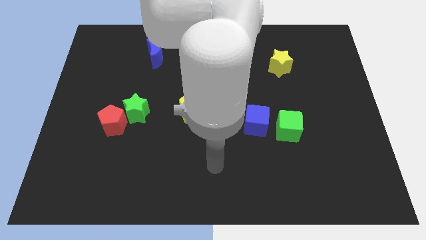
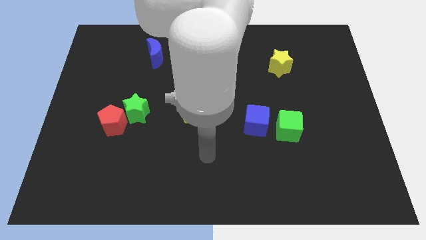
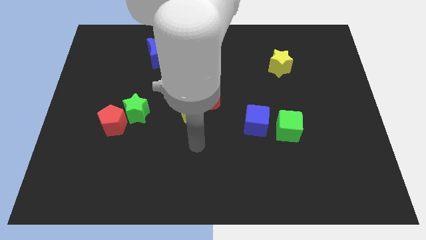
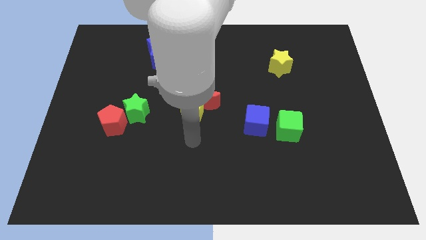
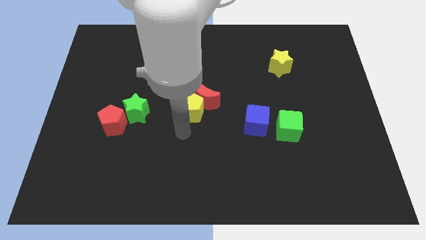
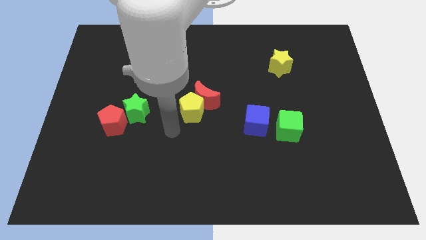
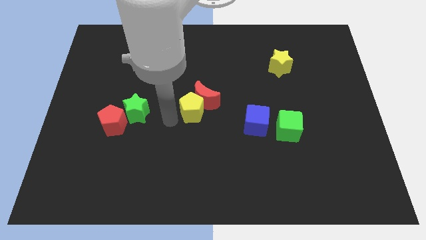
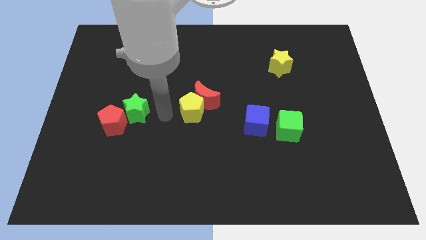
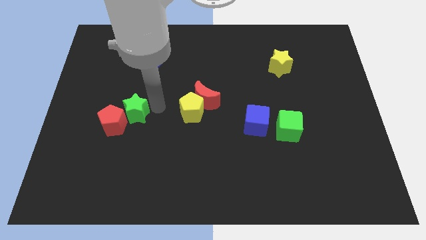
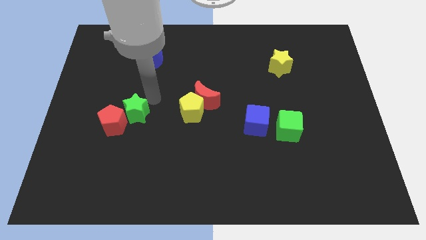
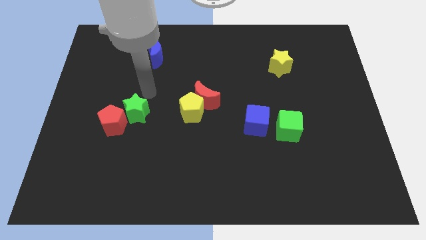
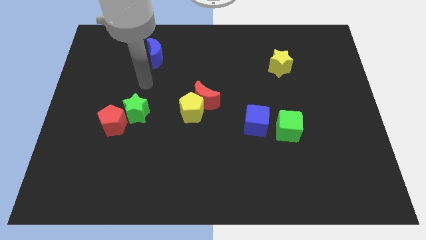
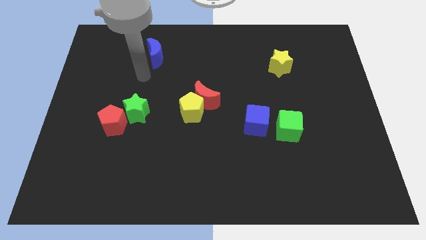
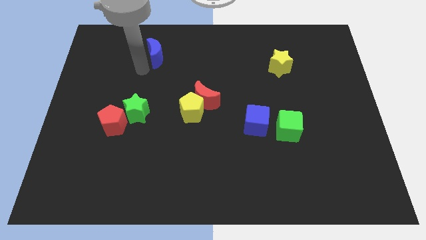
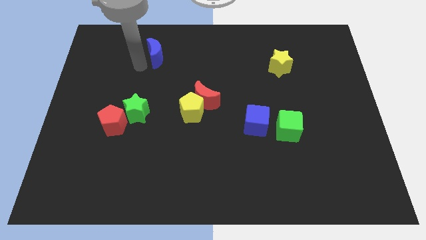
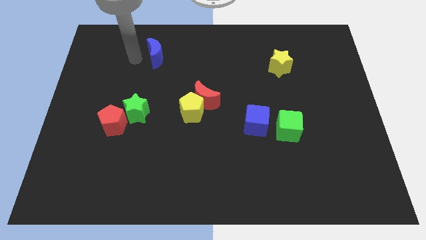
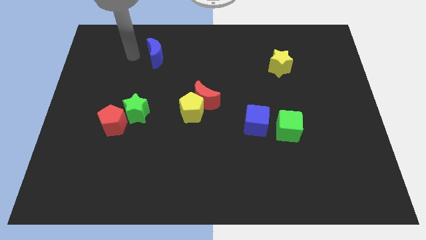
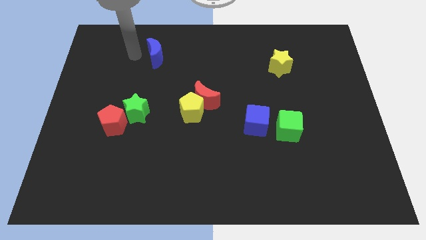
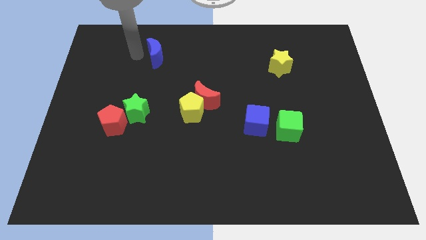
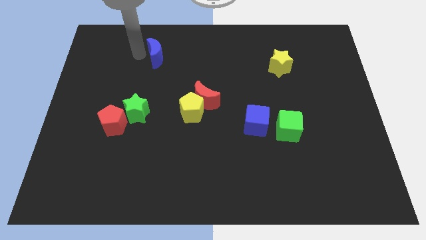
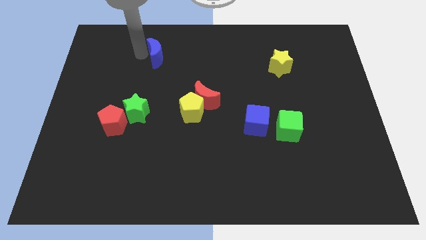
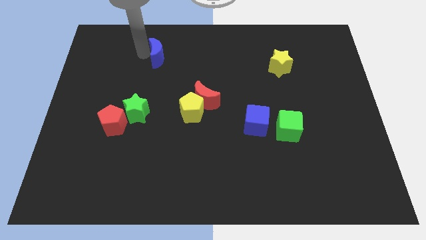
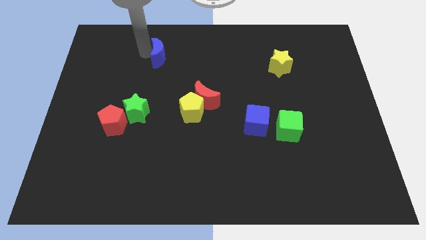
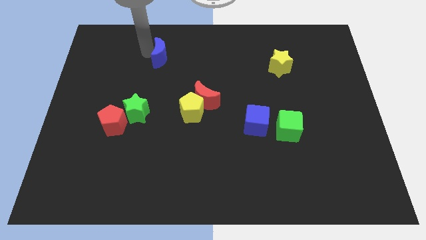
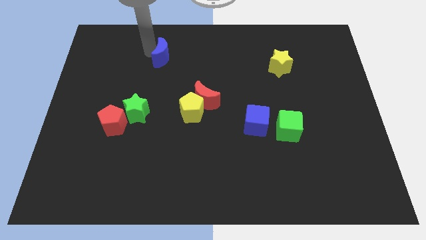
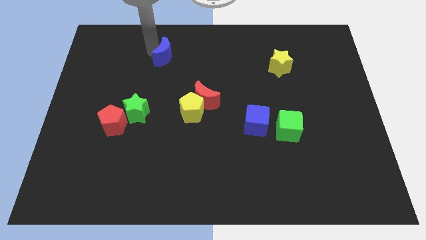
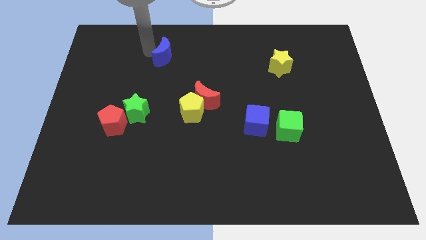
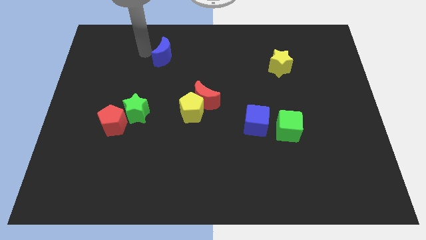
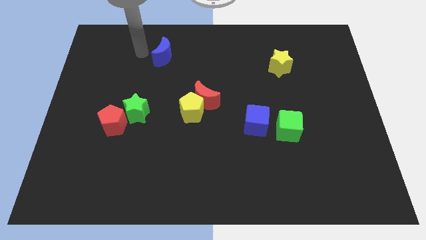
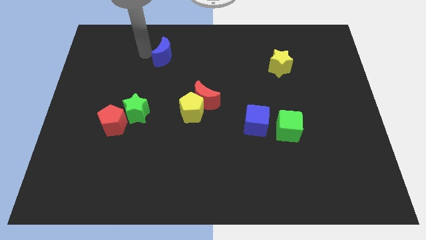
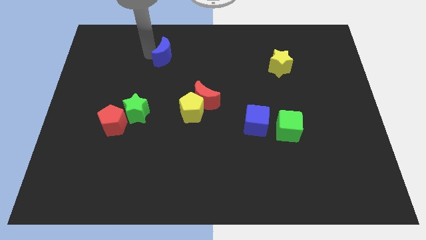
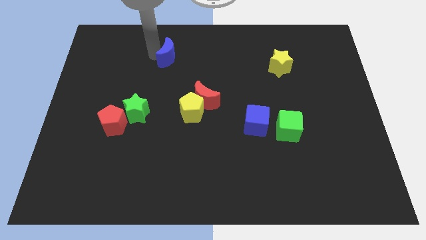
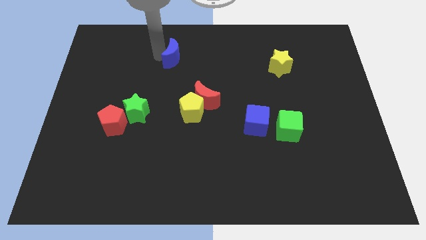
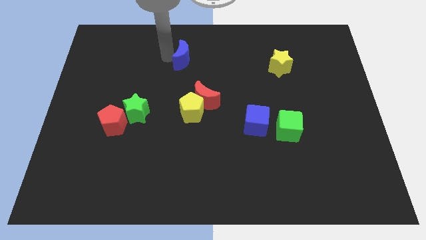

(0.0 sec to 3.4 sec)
slide the blue moon to the right somewhat

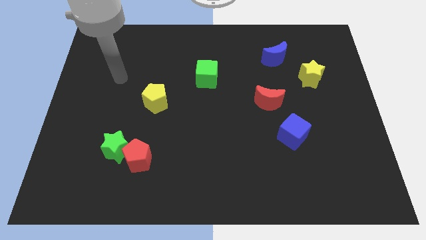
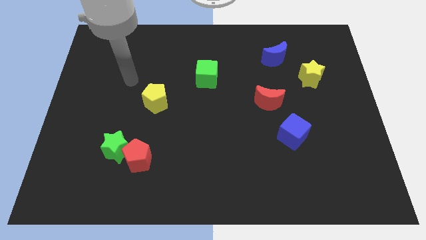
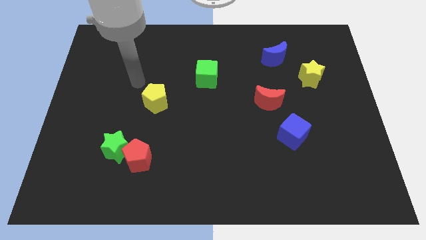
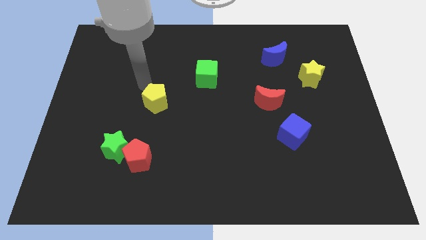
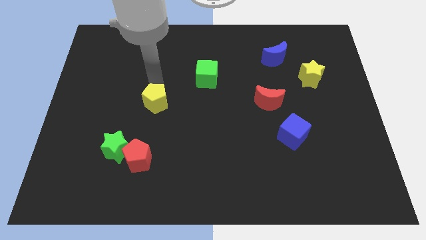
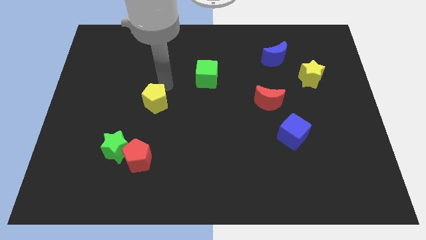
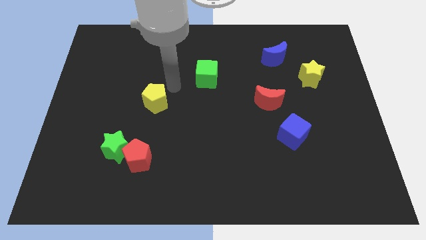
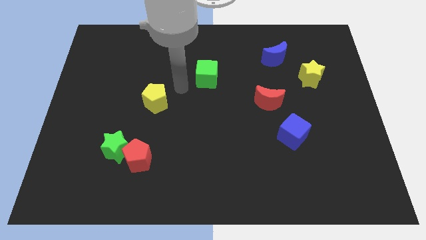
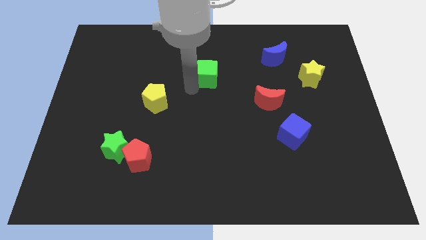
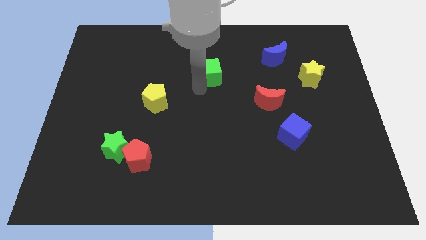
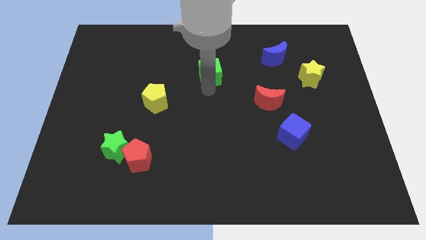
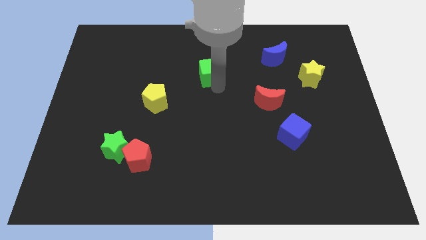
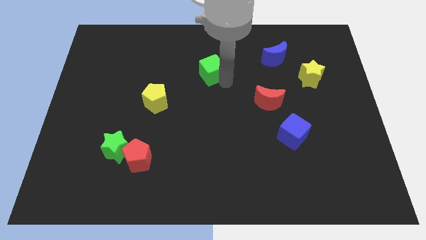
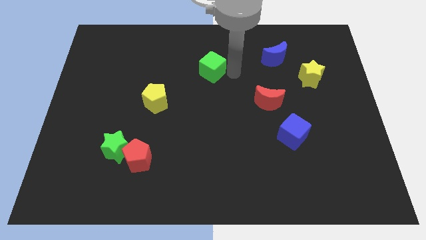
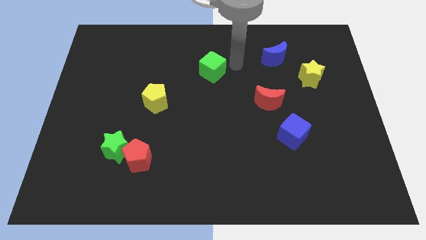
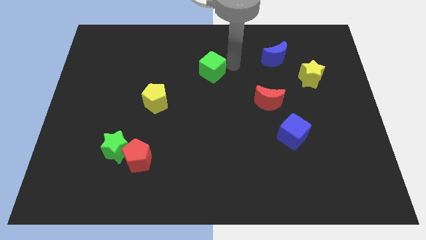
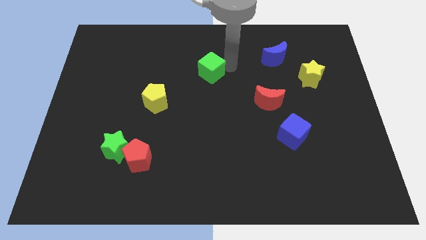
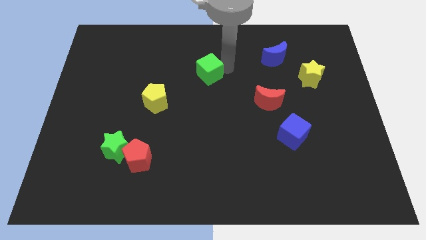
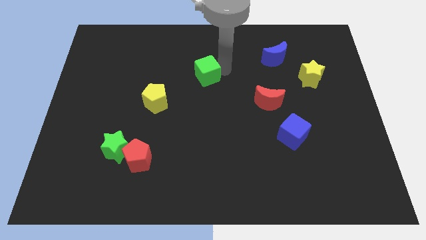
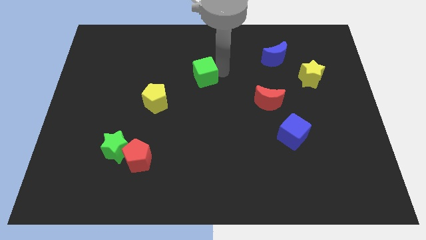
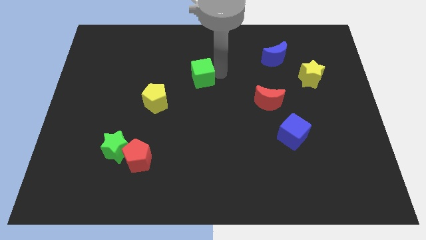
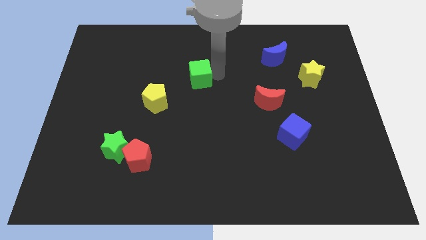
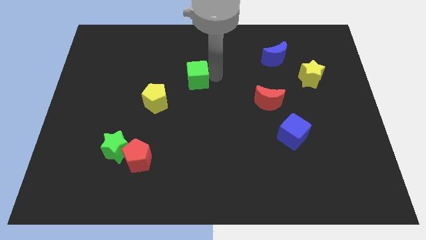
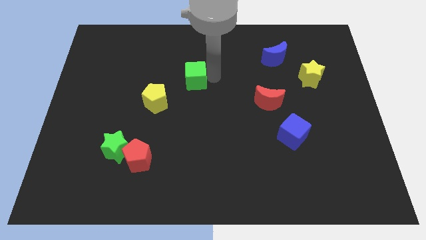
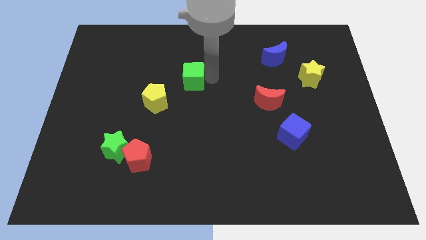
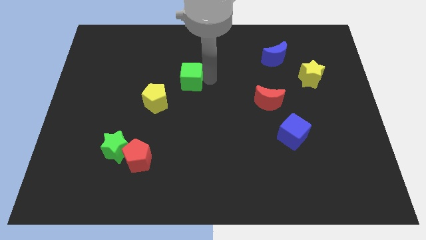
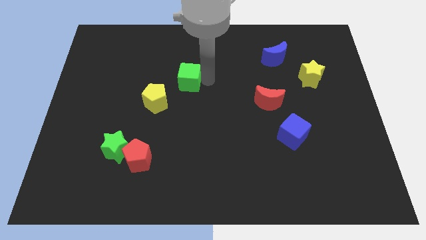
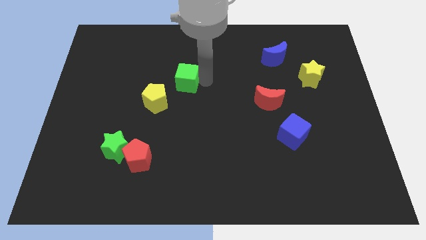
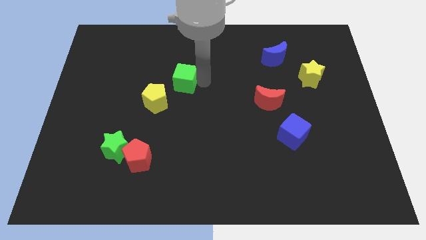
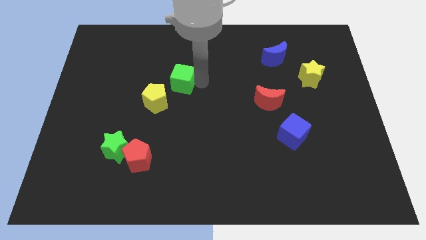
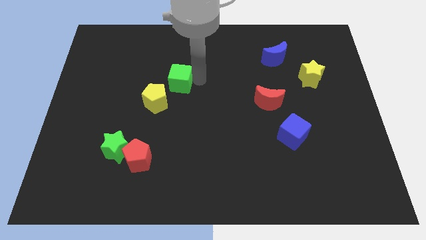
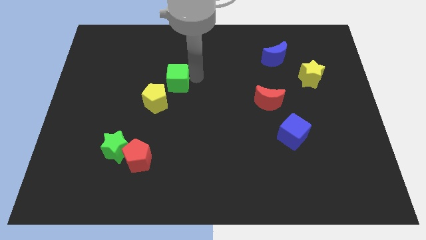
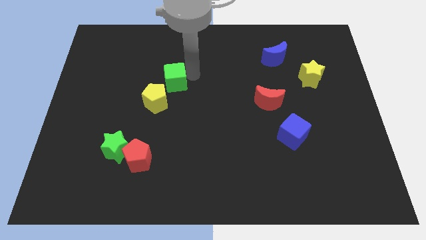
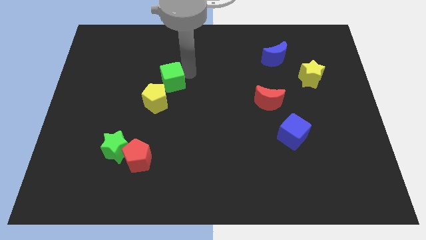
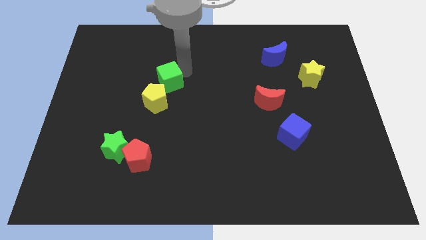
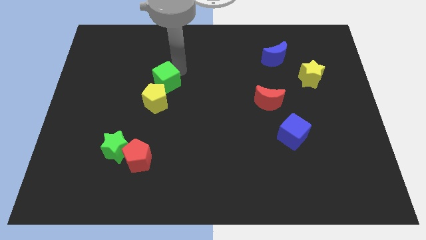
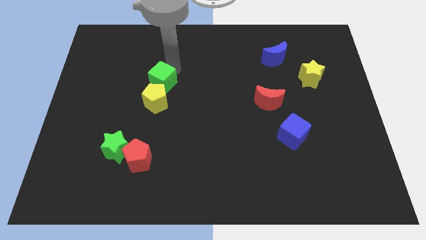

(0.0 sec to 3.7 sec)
slightly push the green cube downwards and left

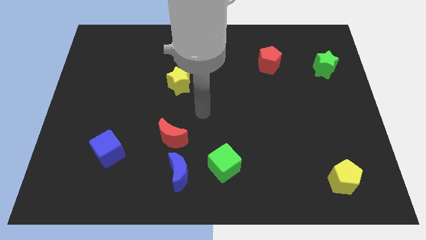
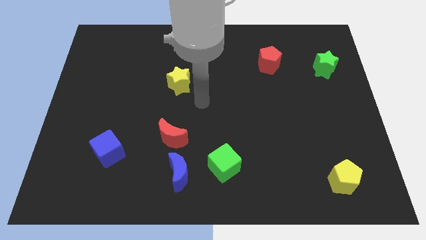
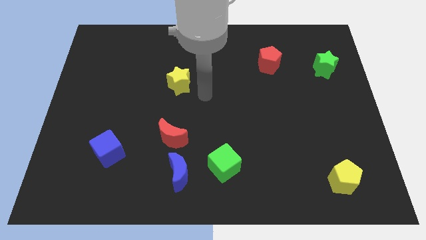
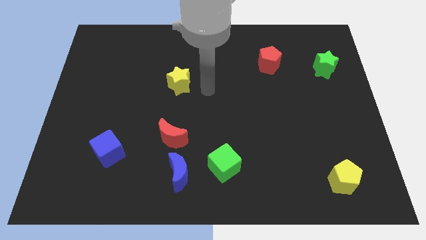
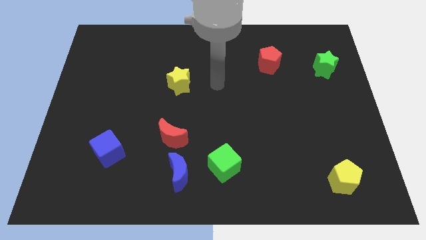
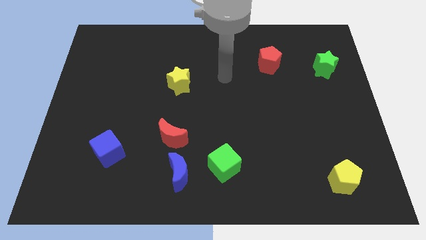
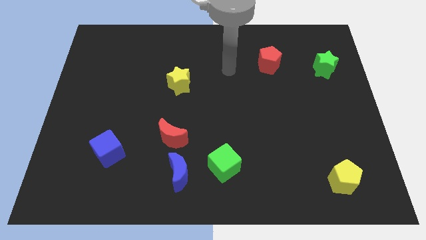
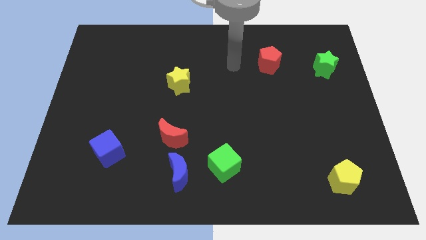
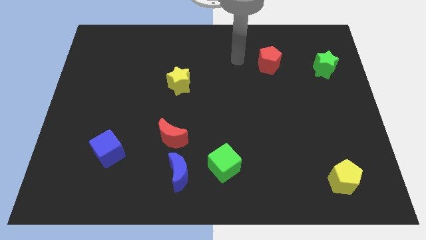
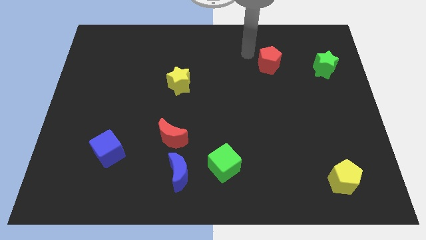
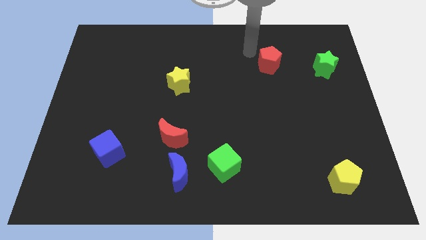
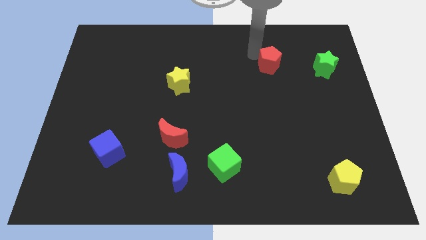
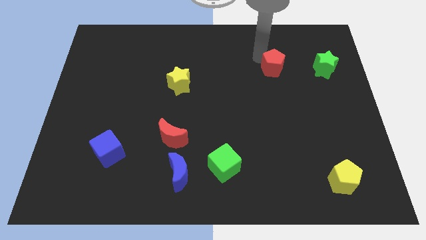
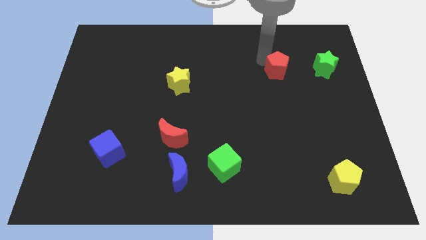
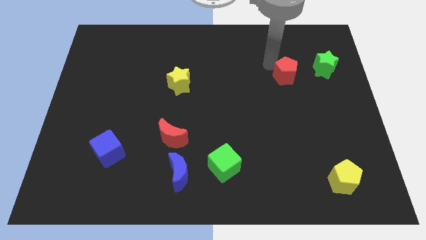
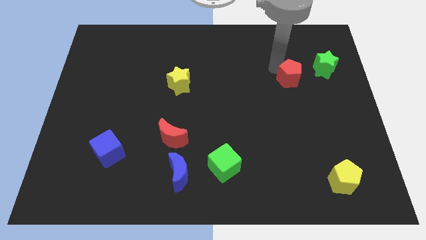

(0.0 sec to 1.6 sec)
slightly move the red pentagon downwards and to the right

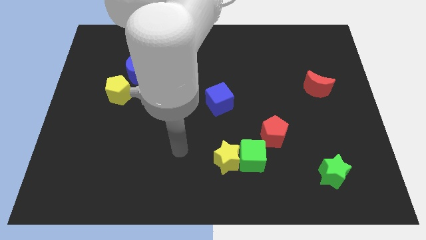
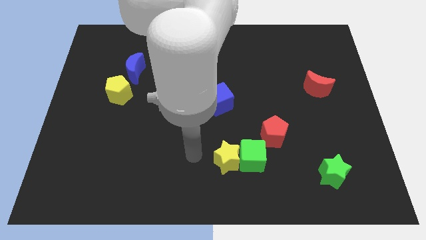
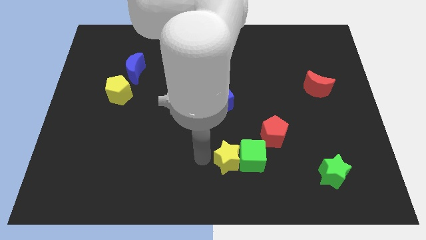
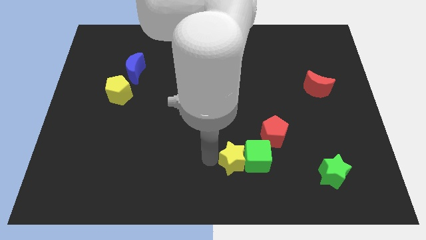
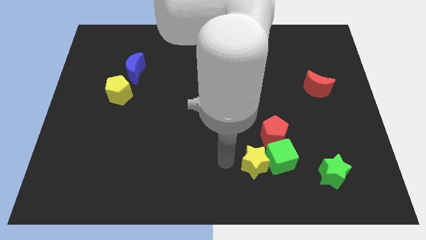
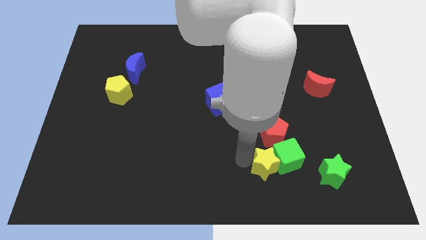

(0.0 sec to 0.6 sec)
slightly move the green cube to the right
